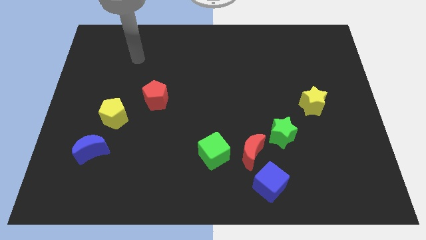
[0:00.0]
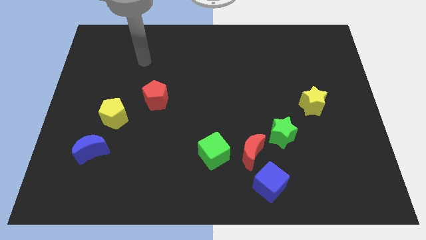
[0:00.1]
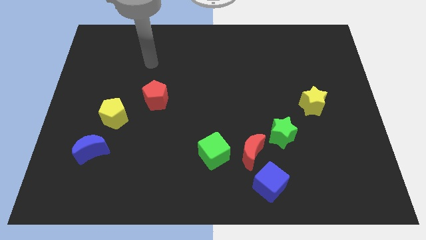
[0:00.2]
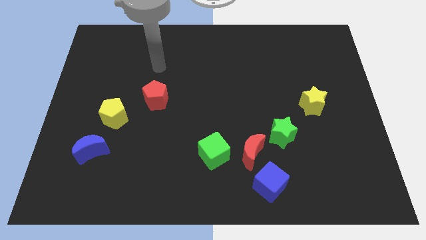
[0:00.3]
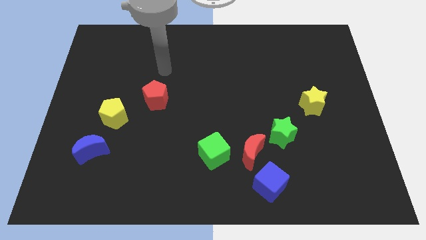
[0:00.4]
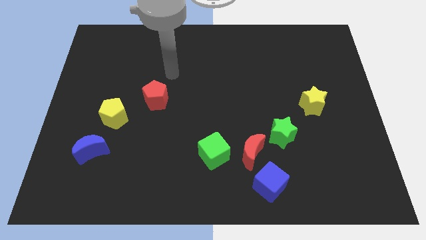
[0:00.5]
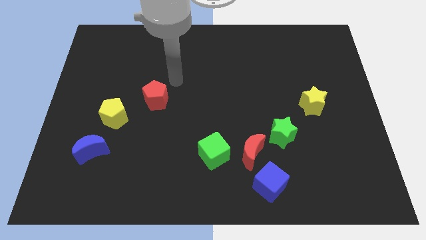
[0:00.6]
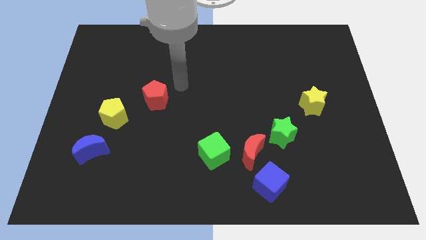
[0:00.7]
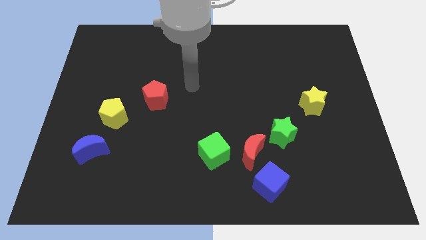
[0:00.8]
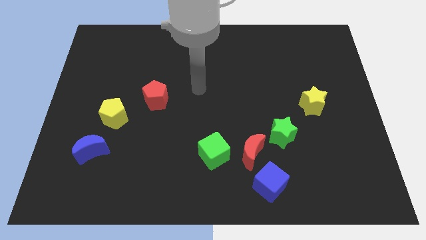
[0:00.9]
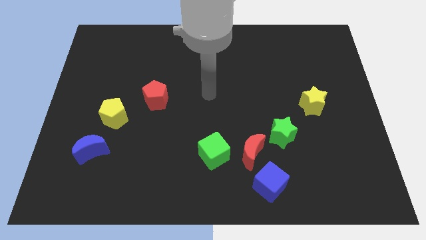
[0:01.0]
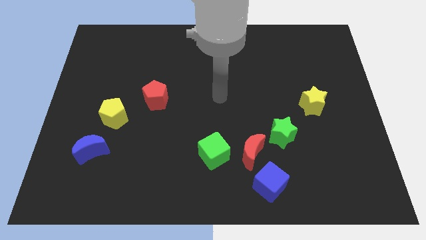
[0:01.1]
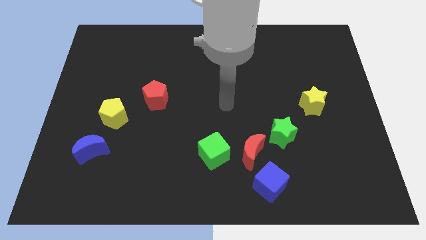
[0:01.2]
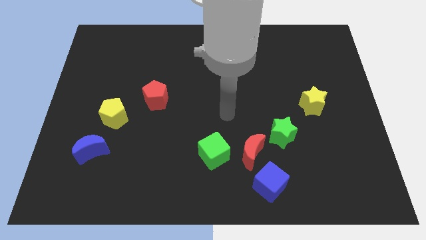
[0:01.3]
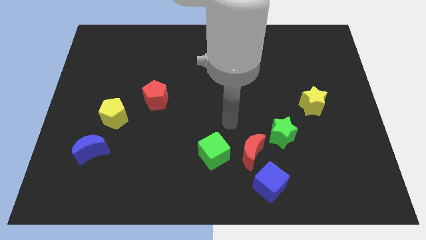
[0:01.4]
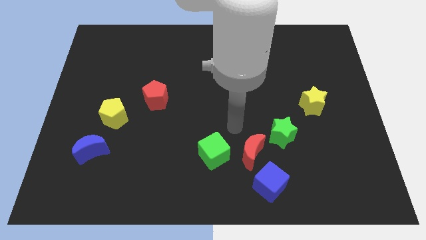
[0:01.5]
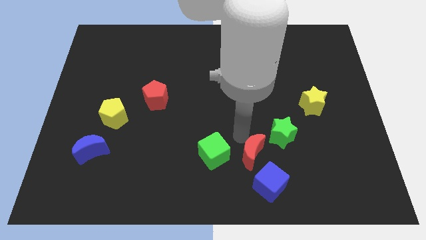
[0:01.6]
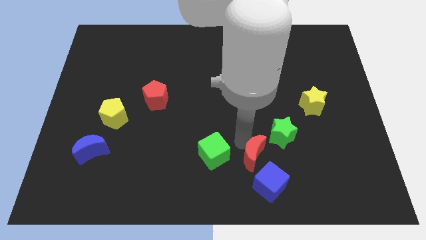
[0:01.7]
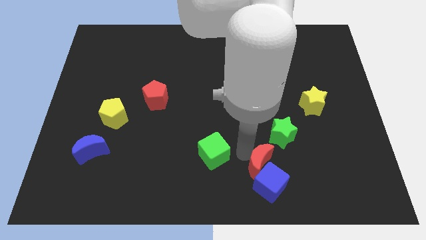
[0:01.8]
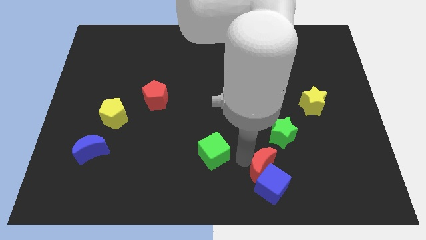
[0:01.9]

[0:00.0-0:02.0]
pull the green cube apart from the red moon

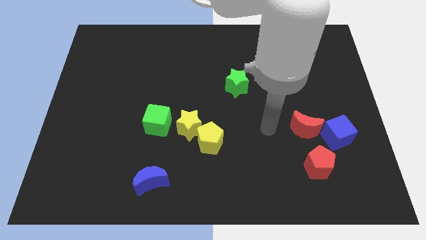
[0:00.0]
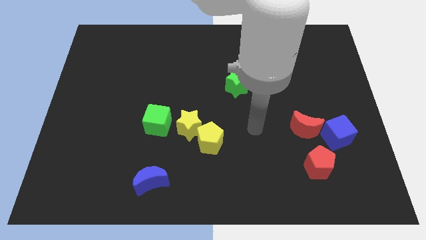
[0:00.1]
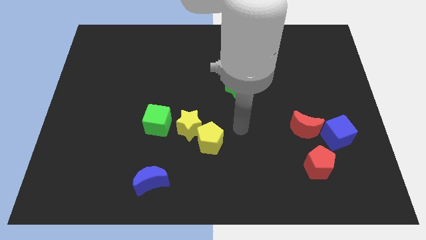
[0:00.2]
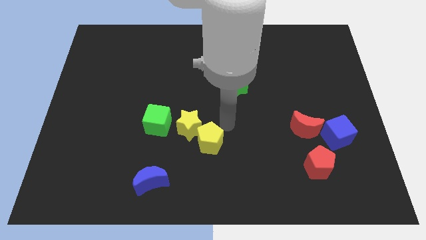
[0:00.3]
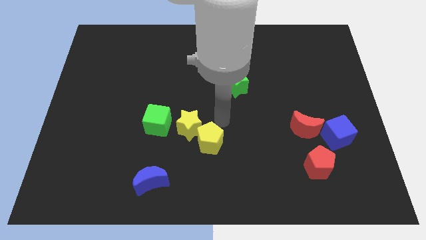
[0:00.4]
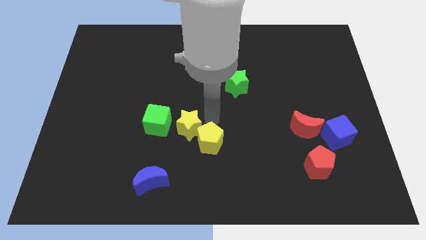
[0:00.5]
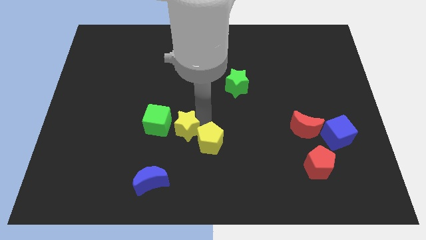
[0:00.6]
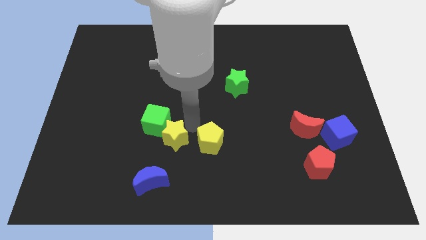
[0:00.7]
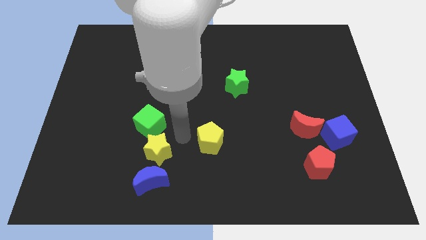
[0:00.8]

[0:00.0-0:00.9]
pull the yellow pentagon apart from the yellow star

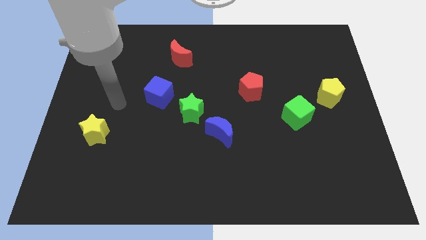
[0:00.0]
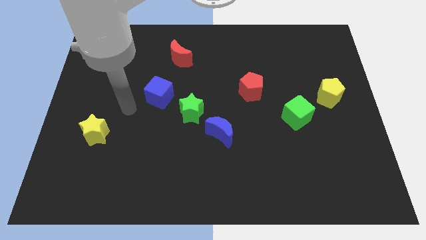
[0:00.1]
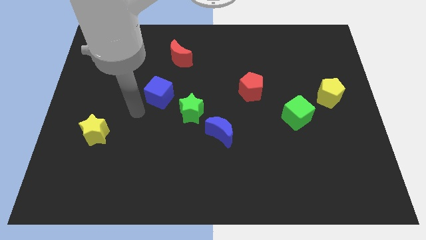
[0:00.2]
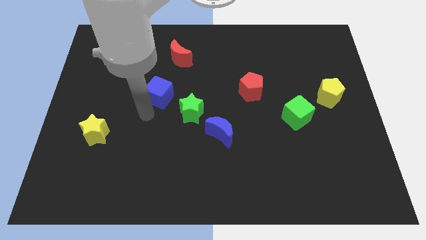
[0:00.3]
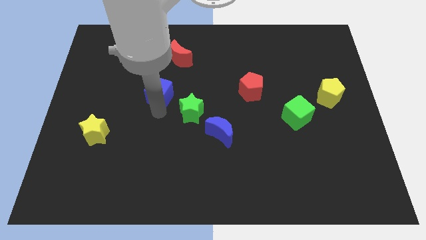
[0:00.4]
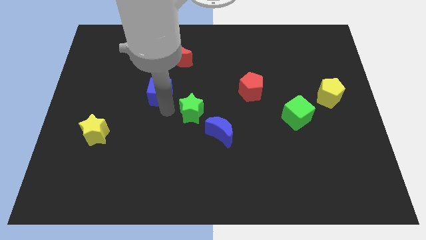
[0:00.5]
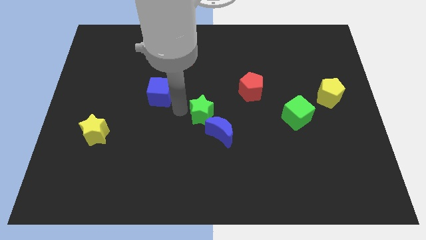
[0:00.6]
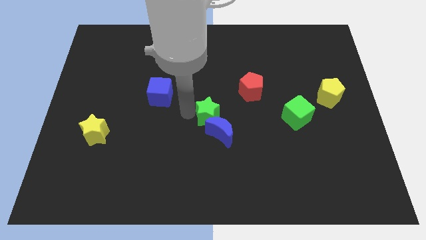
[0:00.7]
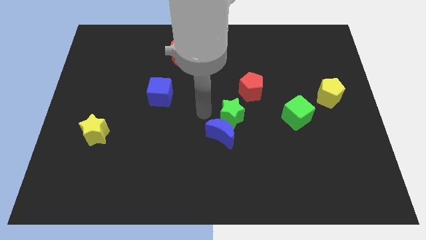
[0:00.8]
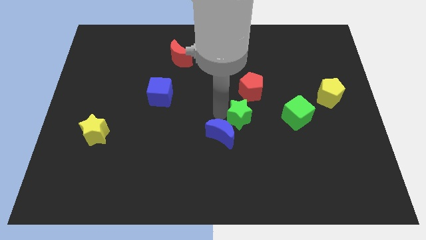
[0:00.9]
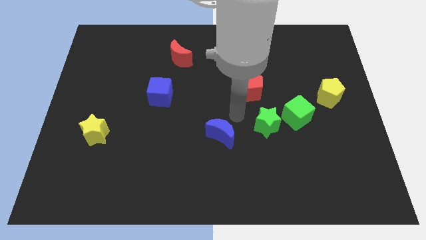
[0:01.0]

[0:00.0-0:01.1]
pull the blue moon apart from the green star

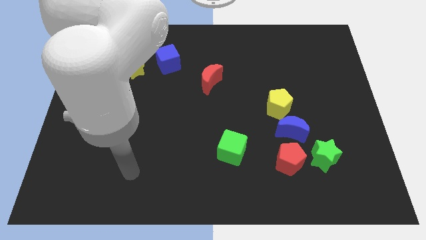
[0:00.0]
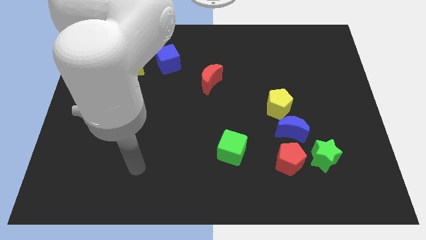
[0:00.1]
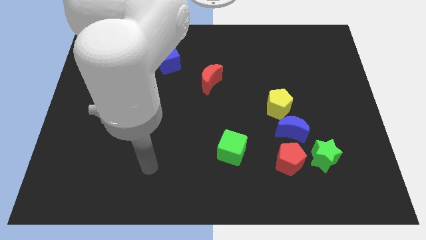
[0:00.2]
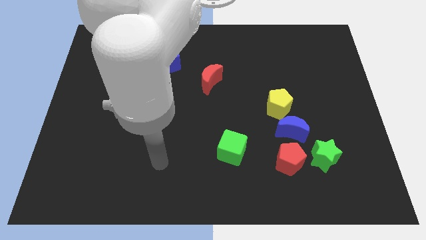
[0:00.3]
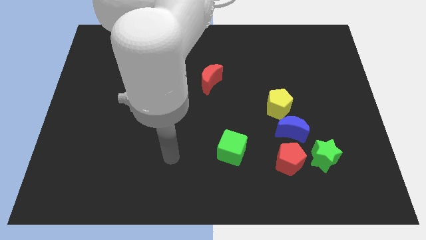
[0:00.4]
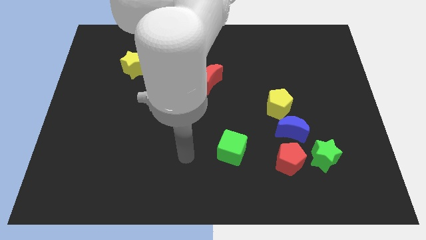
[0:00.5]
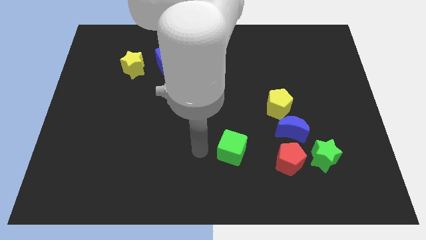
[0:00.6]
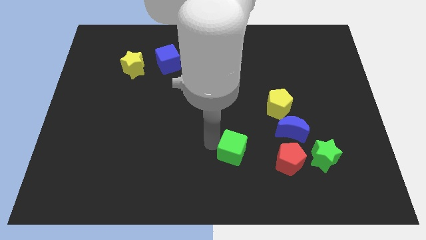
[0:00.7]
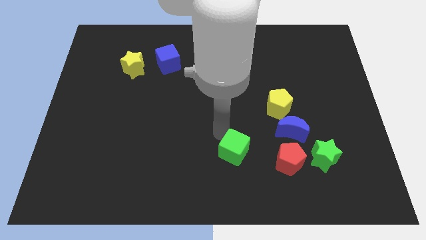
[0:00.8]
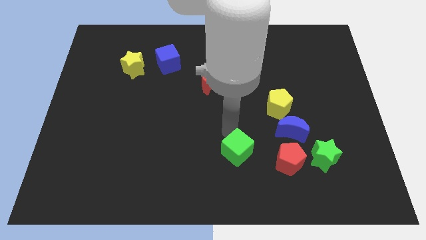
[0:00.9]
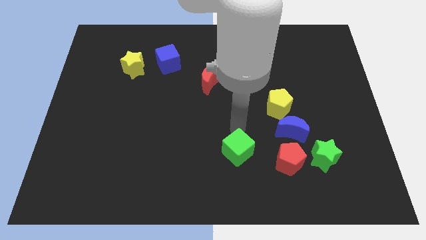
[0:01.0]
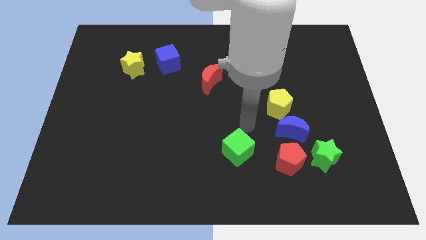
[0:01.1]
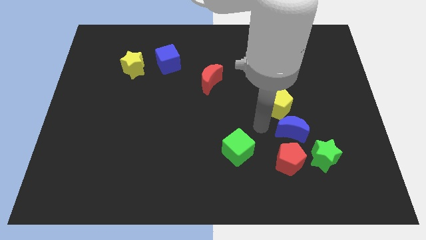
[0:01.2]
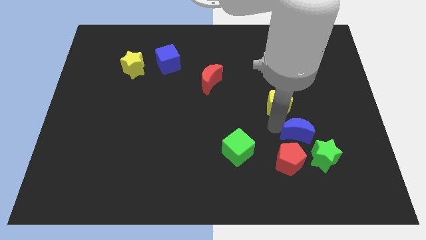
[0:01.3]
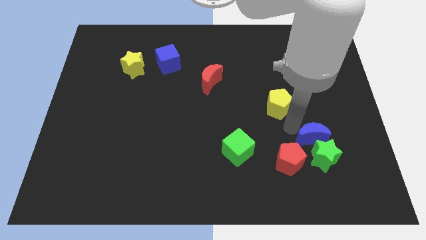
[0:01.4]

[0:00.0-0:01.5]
pull the yellow pentagon apart from the blue moon

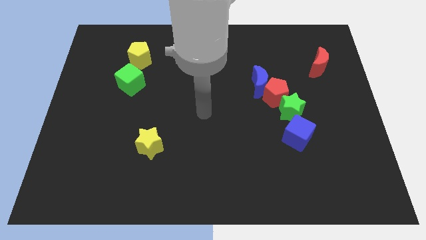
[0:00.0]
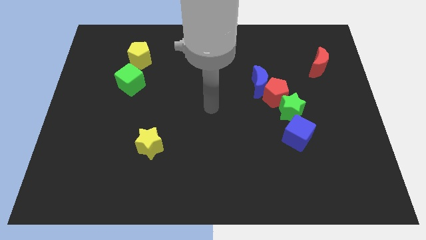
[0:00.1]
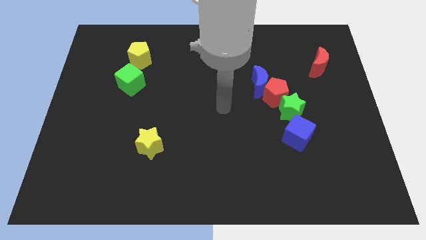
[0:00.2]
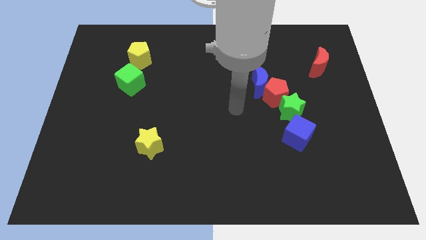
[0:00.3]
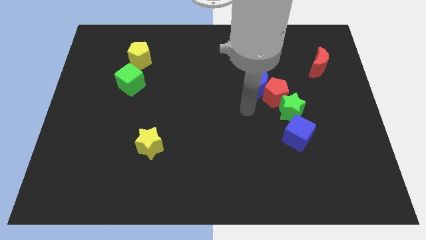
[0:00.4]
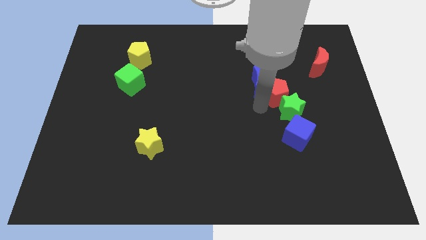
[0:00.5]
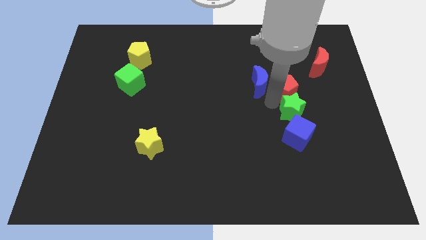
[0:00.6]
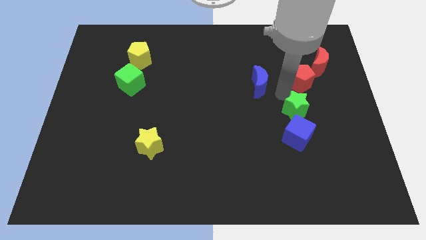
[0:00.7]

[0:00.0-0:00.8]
separate the blue moon from the red pentagon

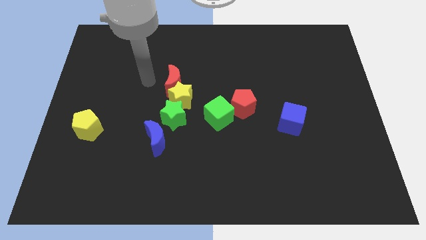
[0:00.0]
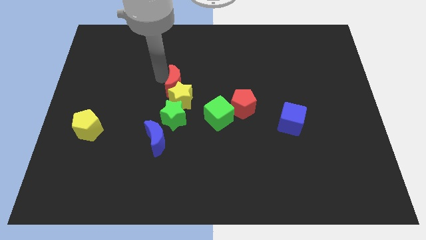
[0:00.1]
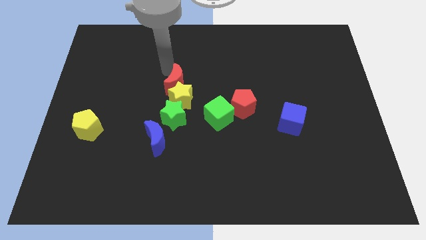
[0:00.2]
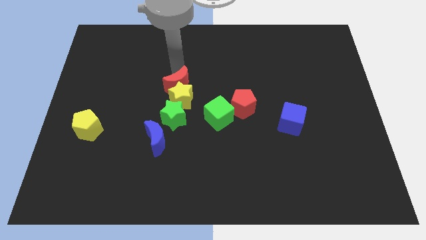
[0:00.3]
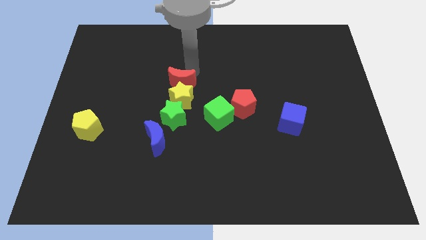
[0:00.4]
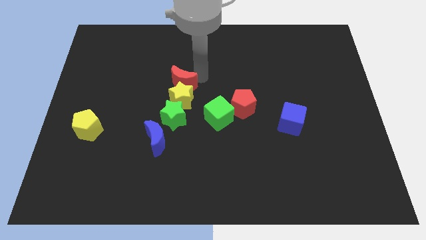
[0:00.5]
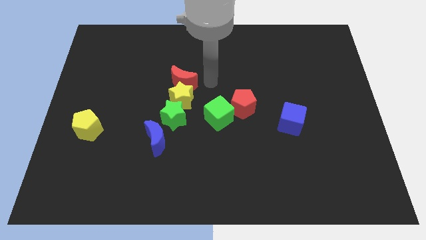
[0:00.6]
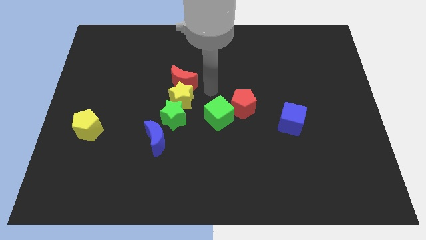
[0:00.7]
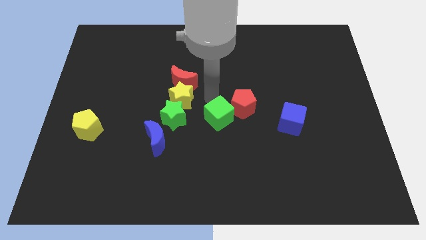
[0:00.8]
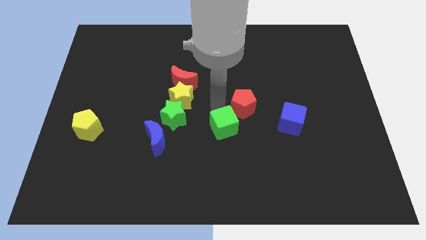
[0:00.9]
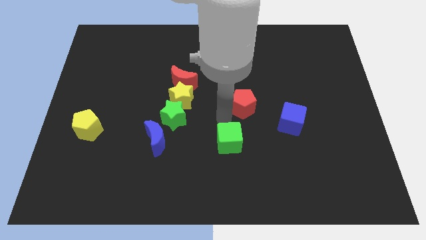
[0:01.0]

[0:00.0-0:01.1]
separate the red pentagon from the green cube

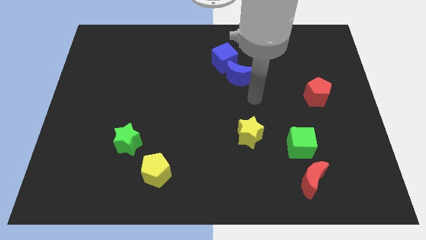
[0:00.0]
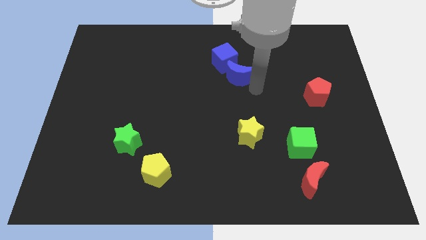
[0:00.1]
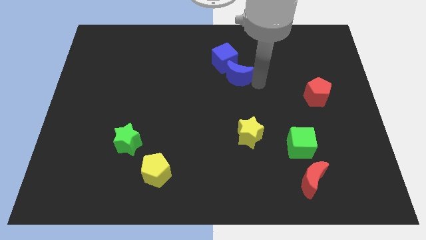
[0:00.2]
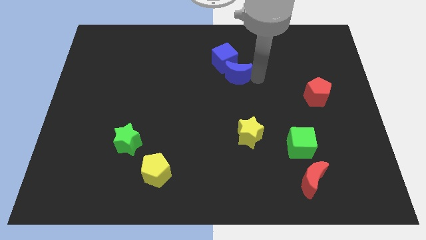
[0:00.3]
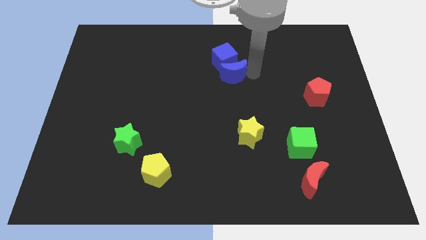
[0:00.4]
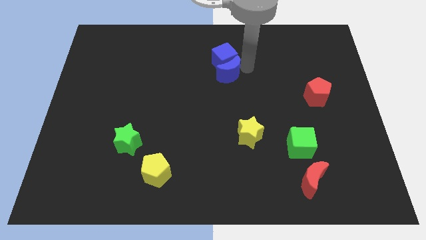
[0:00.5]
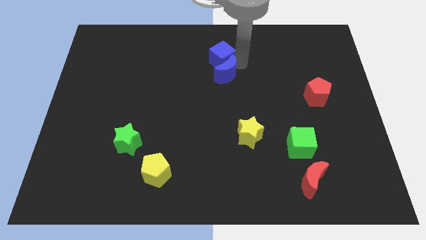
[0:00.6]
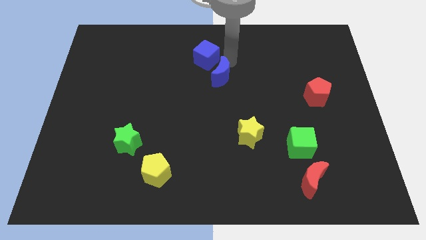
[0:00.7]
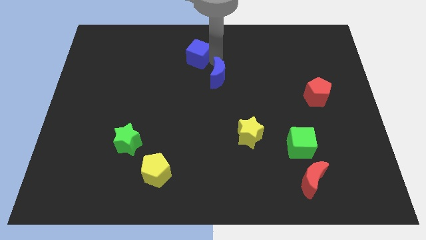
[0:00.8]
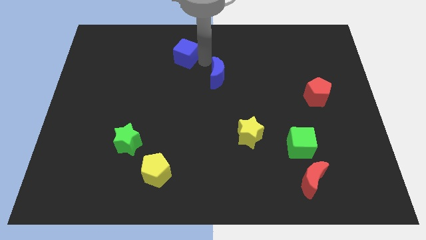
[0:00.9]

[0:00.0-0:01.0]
separate the blue moon from the blue cube

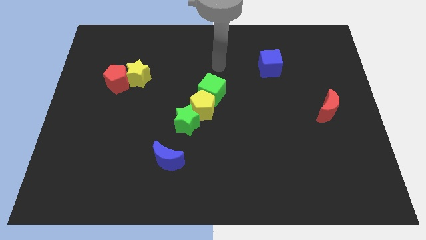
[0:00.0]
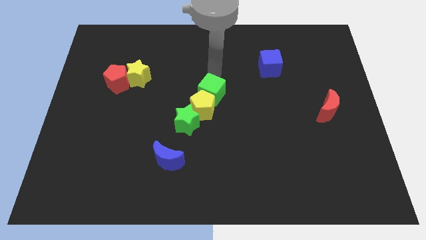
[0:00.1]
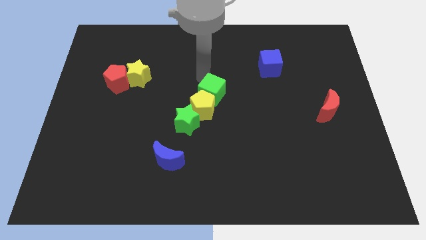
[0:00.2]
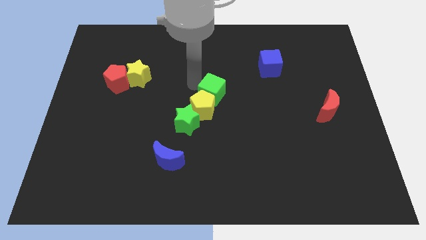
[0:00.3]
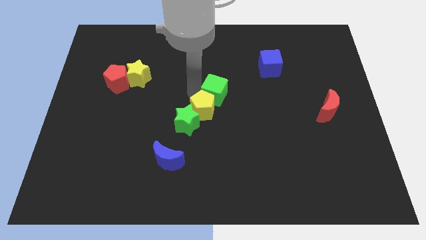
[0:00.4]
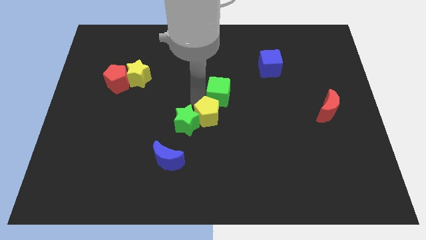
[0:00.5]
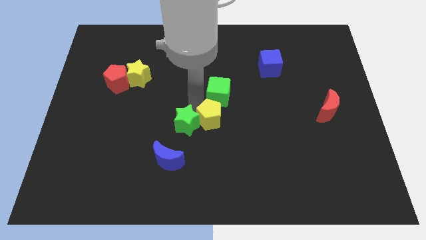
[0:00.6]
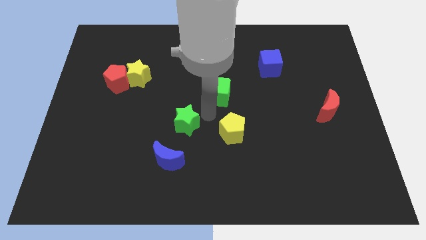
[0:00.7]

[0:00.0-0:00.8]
separate the green cube from the yellow pentagon

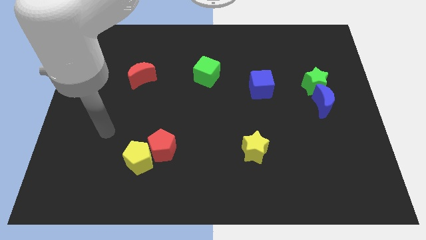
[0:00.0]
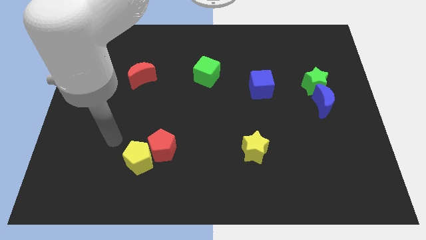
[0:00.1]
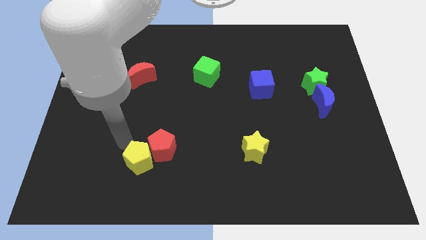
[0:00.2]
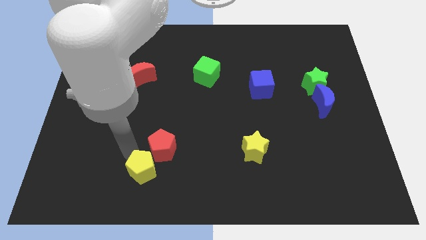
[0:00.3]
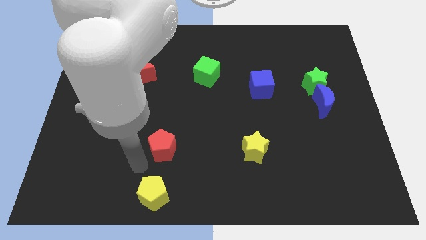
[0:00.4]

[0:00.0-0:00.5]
separate the red pentagon from the yellow pentagon
